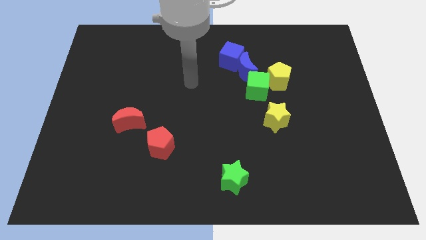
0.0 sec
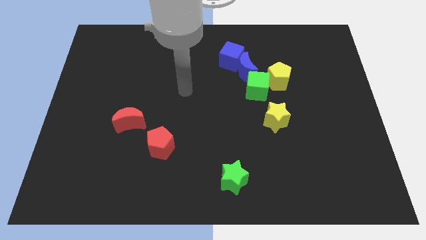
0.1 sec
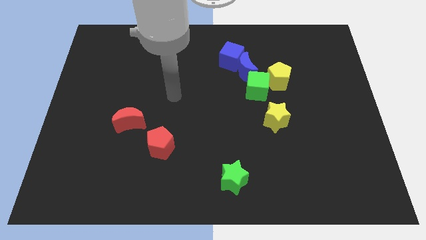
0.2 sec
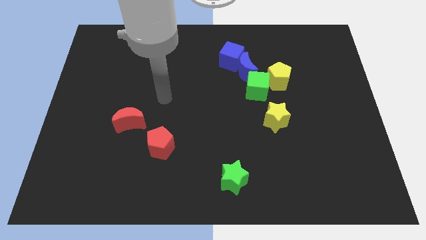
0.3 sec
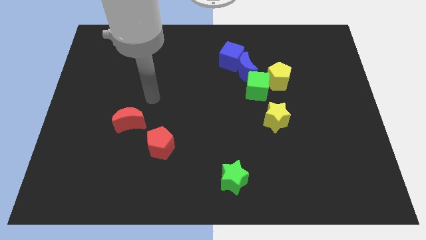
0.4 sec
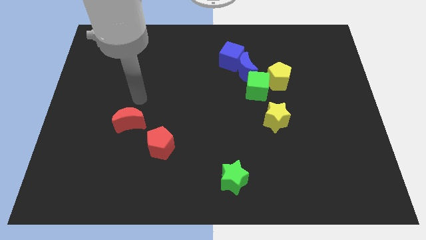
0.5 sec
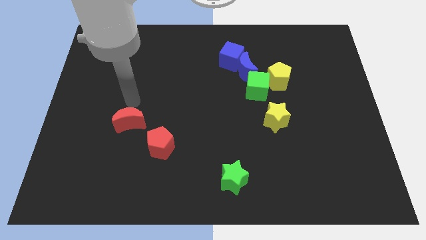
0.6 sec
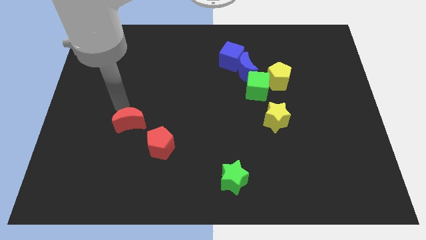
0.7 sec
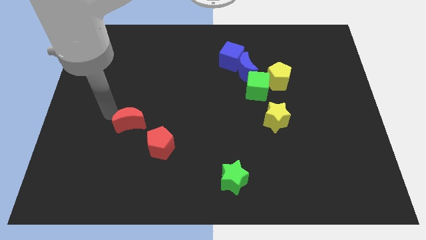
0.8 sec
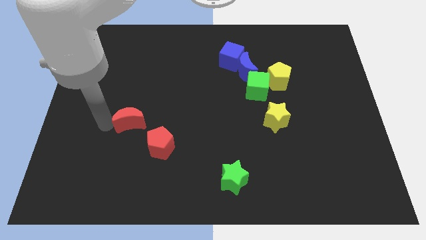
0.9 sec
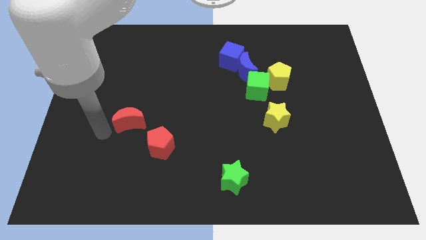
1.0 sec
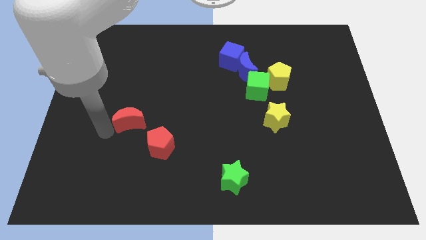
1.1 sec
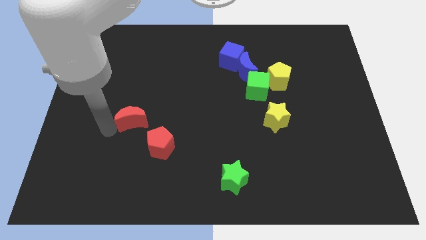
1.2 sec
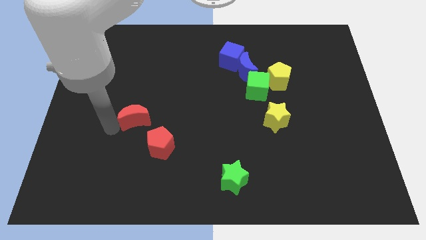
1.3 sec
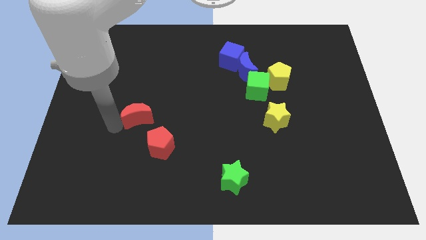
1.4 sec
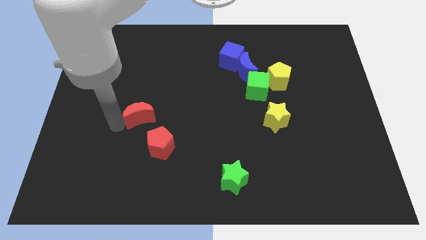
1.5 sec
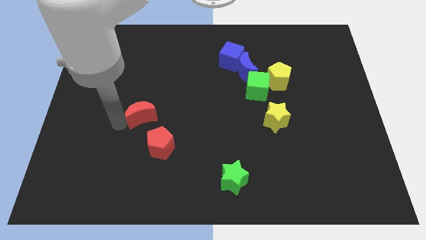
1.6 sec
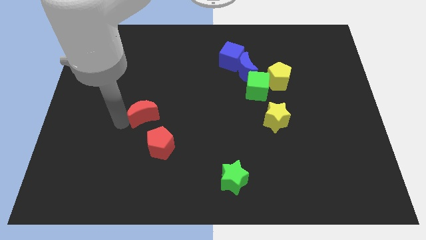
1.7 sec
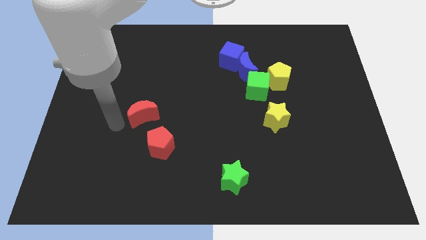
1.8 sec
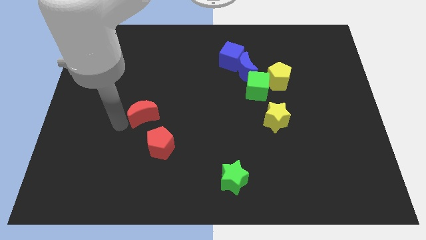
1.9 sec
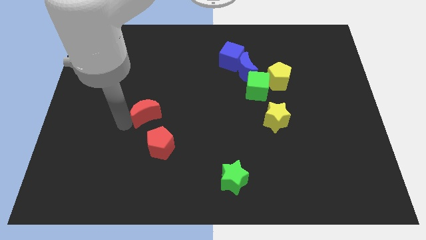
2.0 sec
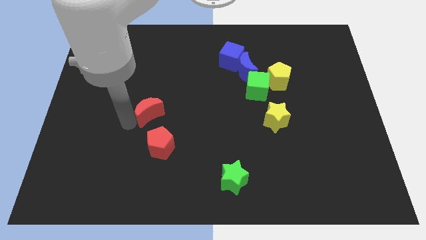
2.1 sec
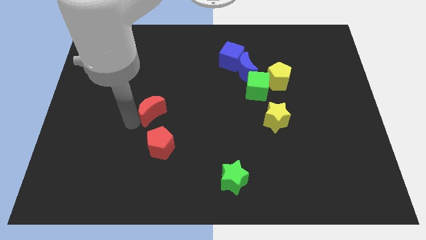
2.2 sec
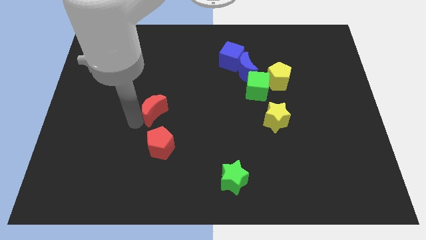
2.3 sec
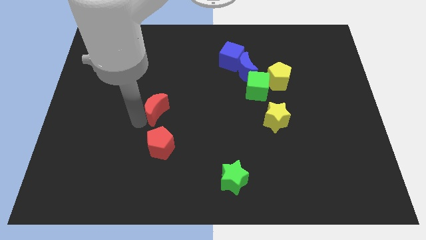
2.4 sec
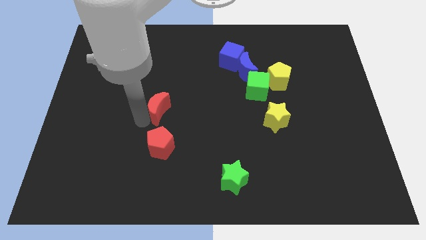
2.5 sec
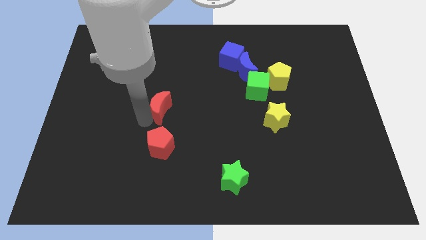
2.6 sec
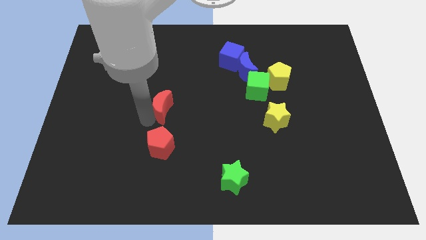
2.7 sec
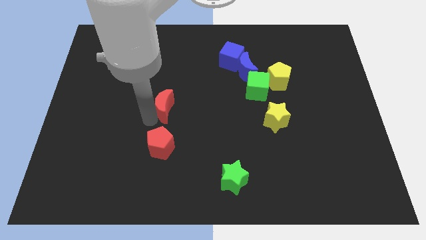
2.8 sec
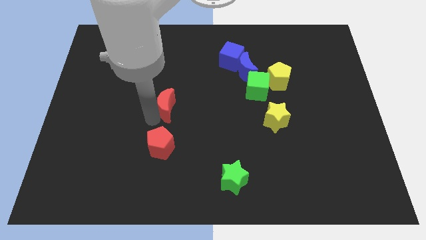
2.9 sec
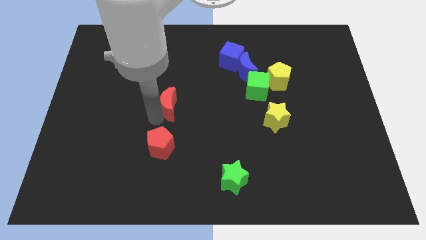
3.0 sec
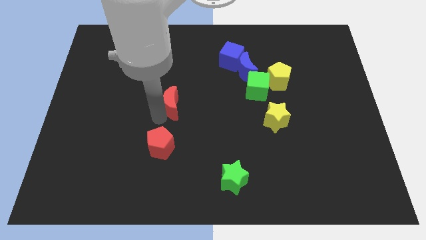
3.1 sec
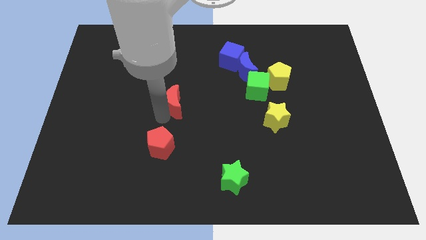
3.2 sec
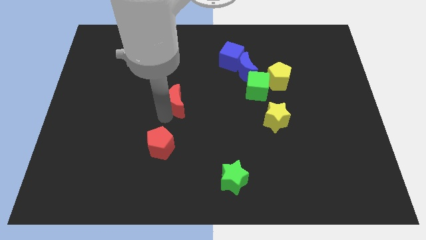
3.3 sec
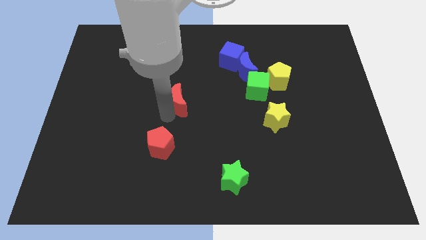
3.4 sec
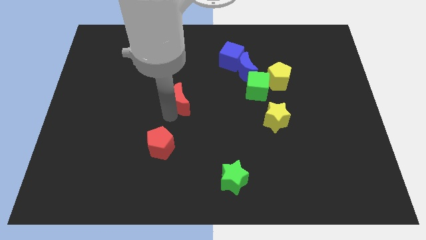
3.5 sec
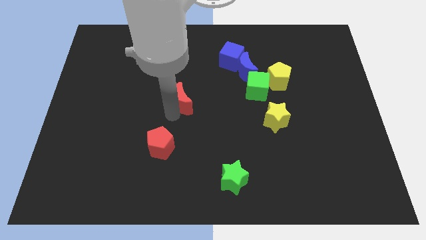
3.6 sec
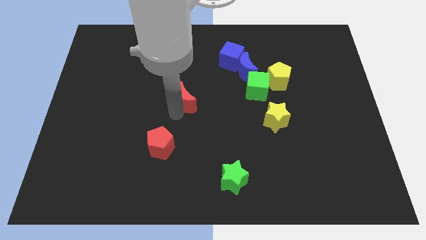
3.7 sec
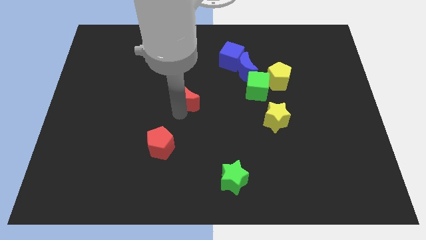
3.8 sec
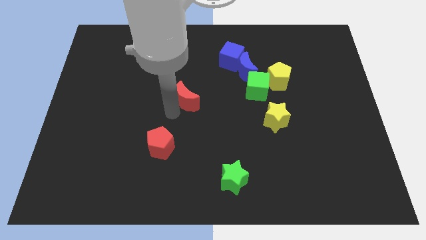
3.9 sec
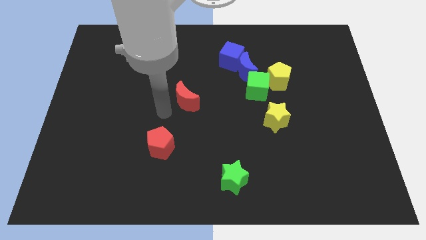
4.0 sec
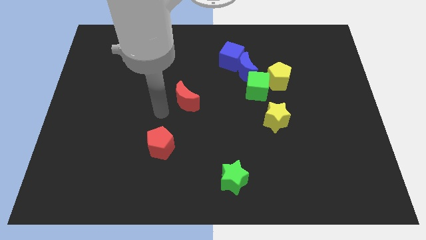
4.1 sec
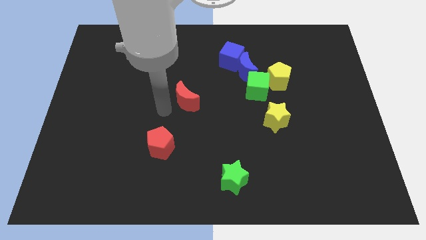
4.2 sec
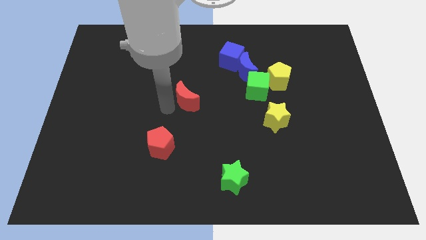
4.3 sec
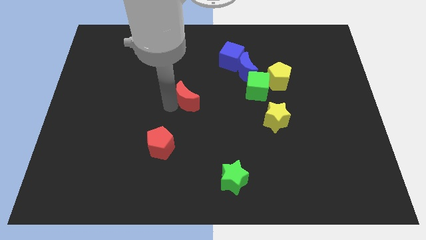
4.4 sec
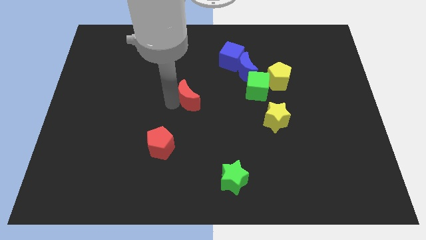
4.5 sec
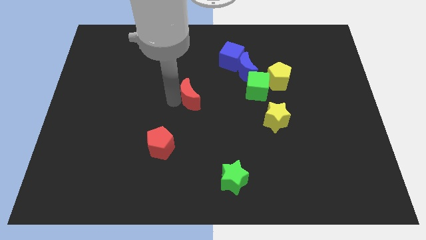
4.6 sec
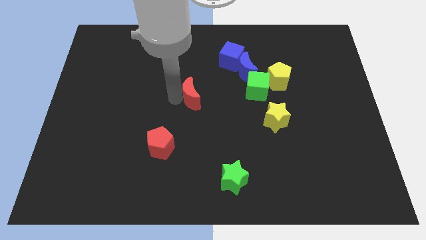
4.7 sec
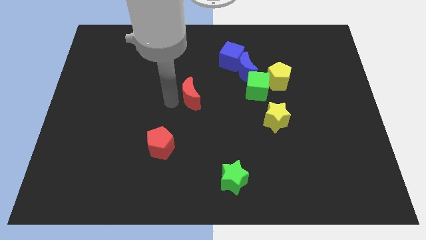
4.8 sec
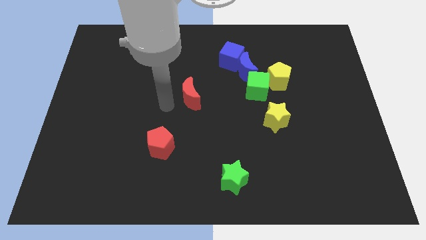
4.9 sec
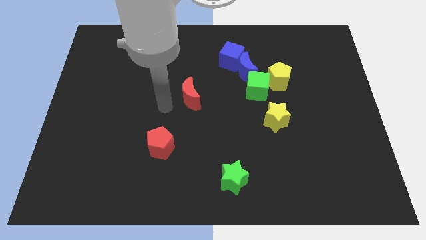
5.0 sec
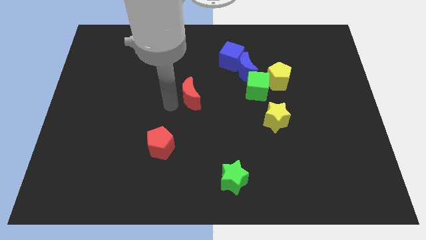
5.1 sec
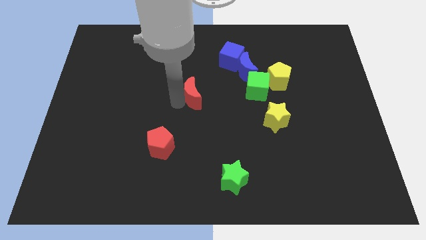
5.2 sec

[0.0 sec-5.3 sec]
push the red moon to the left side of the green cube
